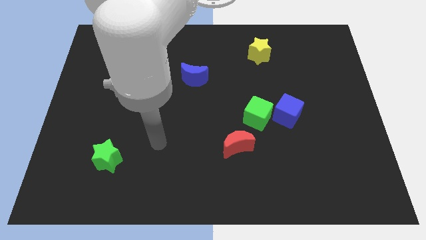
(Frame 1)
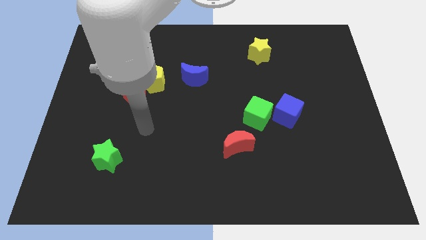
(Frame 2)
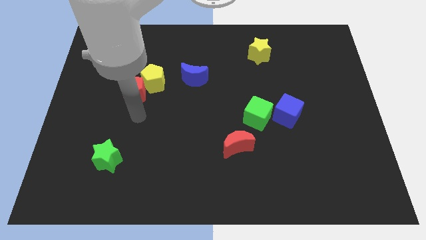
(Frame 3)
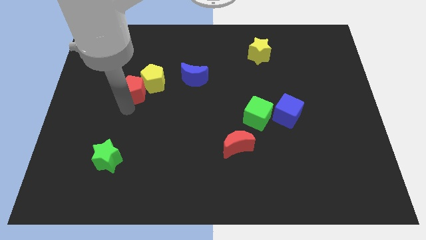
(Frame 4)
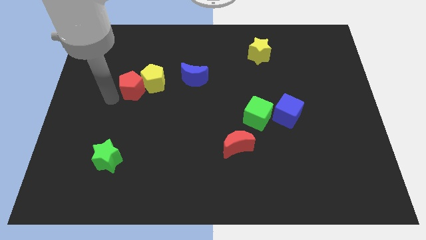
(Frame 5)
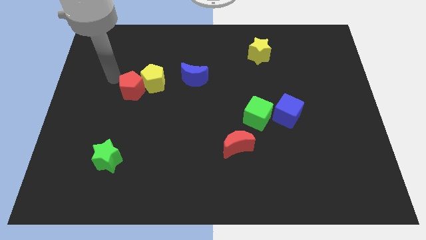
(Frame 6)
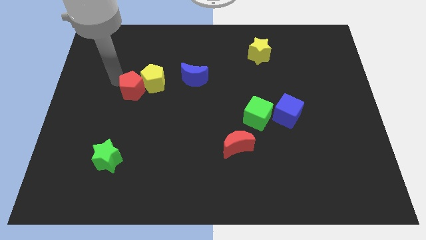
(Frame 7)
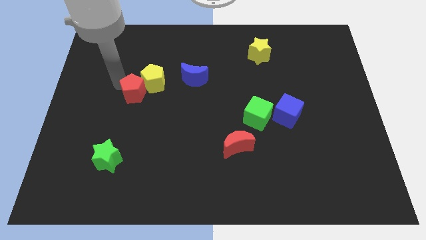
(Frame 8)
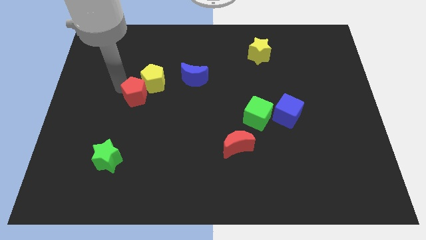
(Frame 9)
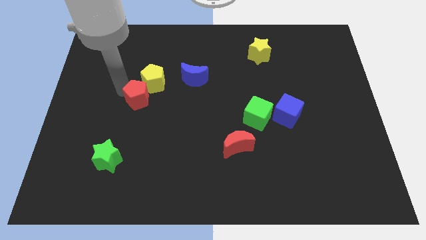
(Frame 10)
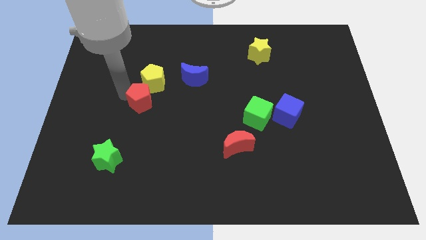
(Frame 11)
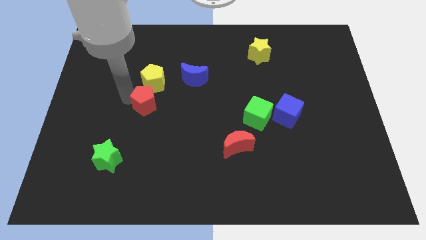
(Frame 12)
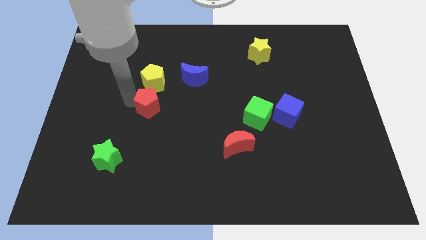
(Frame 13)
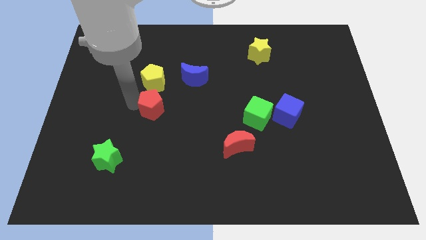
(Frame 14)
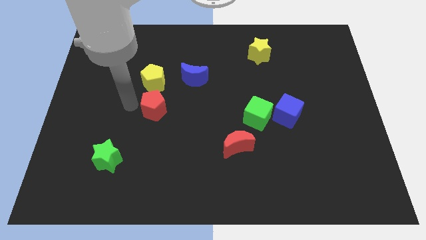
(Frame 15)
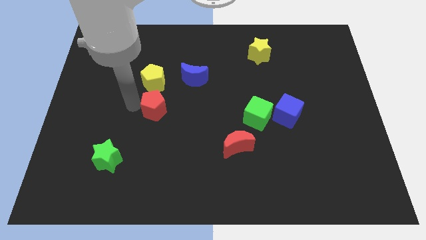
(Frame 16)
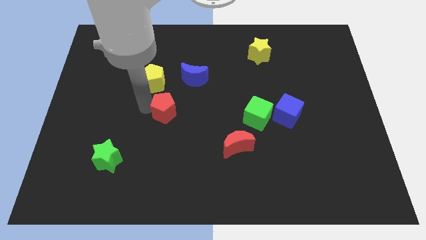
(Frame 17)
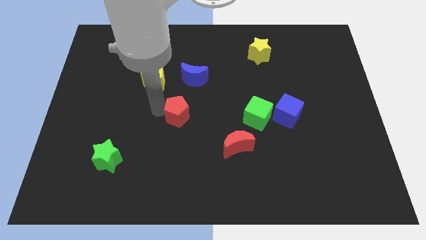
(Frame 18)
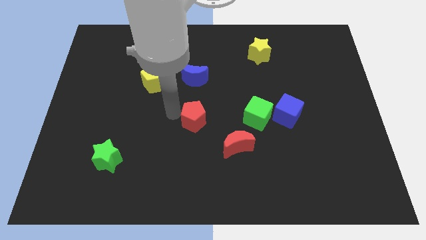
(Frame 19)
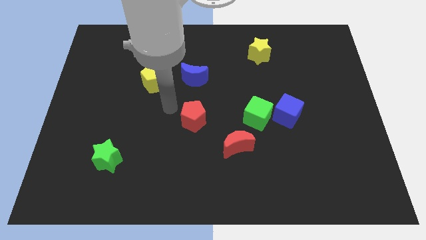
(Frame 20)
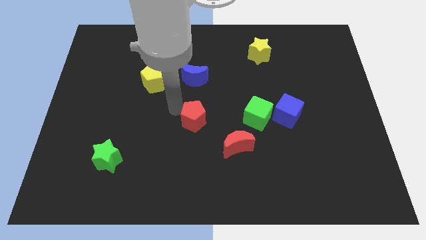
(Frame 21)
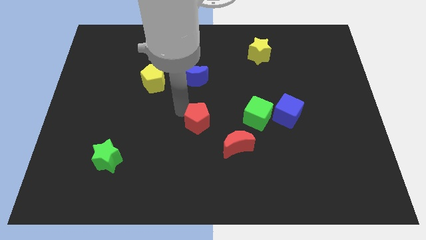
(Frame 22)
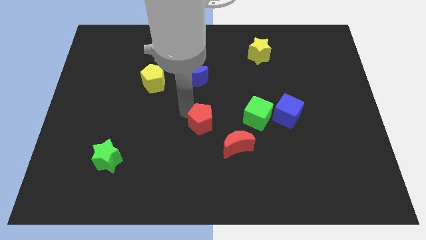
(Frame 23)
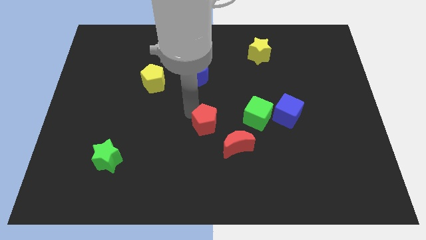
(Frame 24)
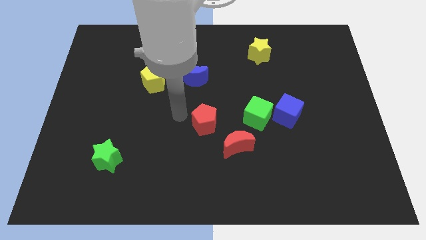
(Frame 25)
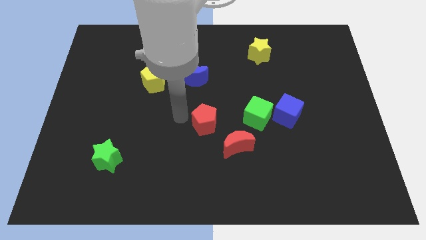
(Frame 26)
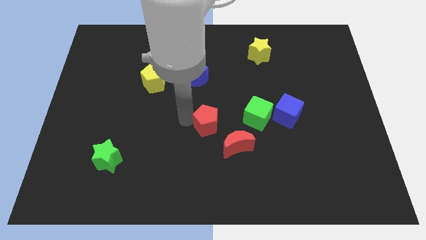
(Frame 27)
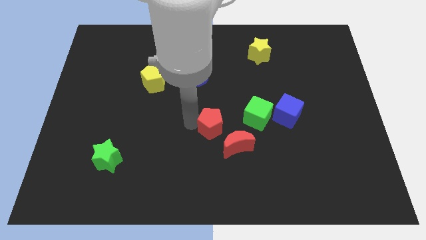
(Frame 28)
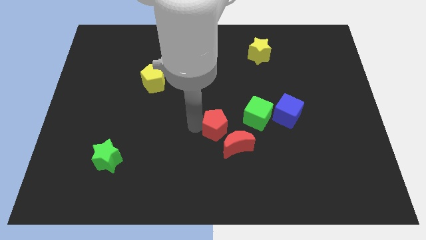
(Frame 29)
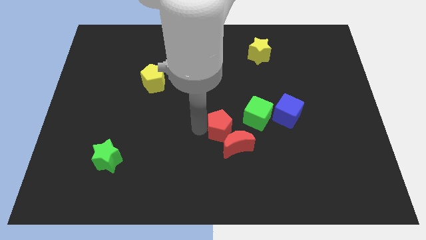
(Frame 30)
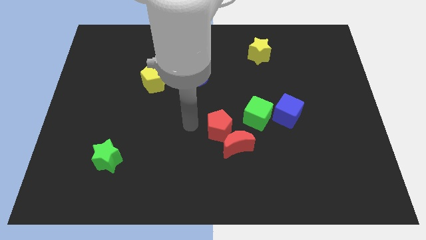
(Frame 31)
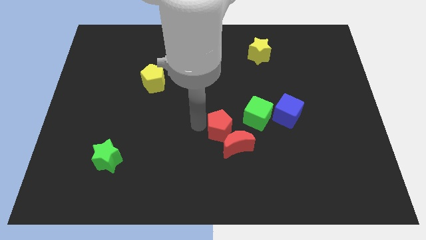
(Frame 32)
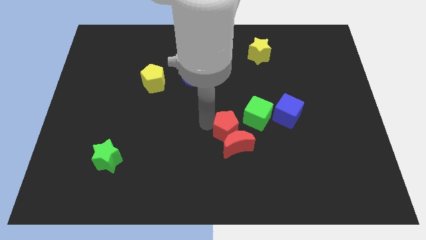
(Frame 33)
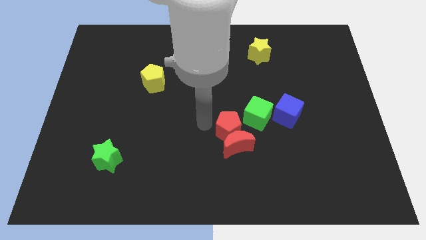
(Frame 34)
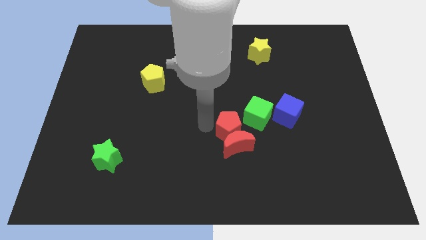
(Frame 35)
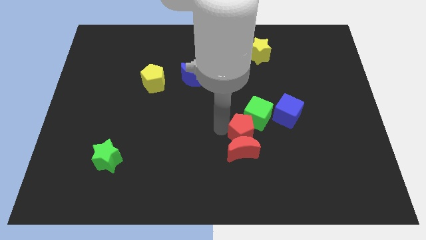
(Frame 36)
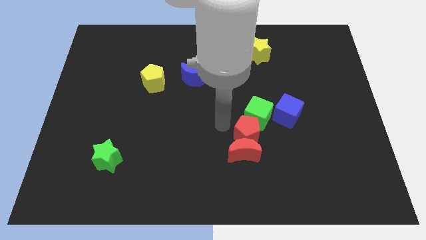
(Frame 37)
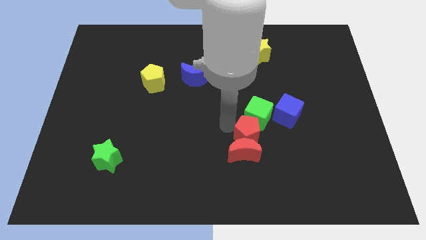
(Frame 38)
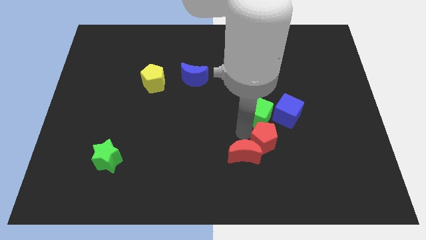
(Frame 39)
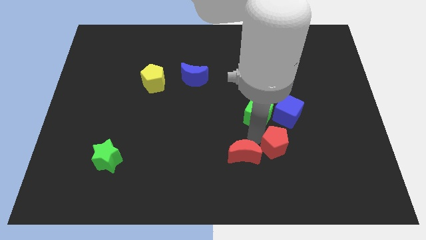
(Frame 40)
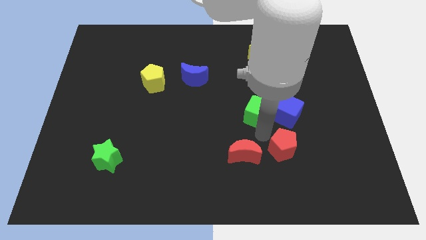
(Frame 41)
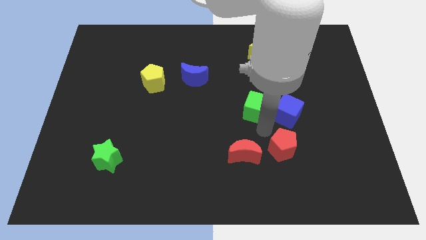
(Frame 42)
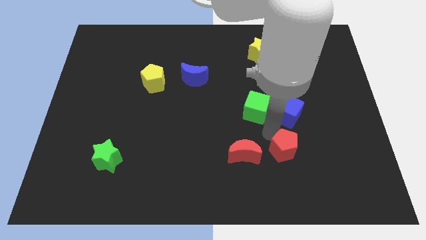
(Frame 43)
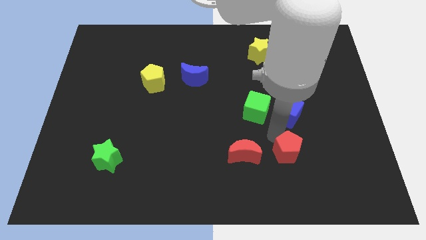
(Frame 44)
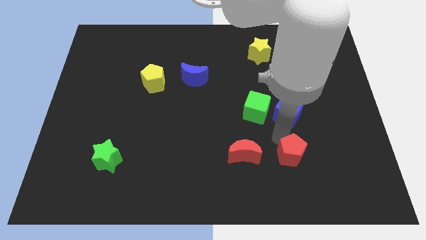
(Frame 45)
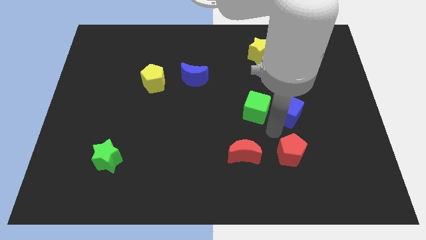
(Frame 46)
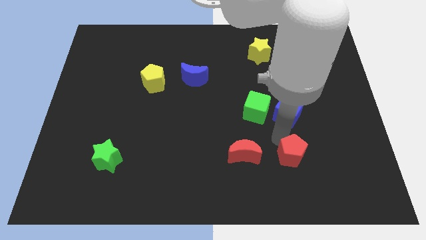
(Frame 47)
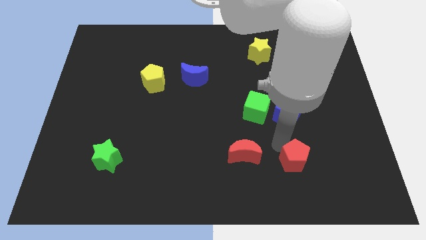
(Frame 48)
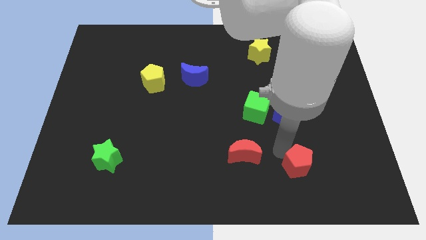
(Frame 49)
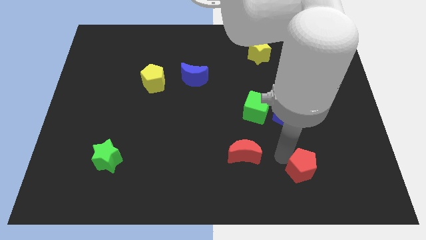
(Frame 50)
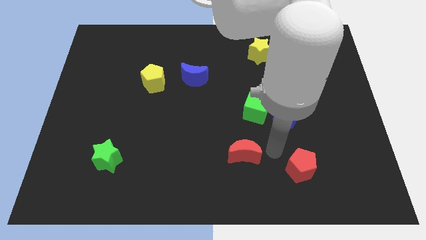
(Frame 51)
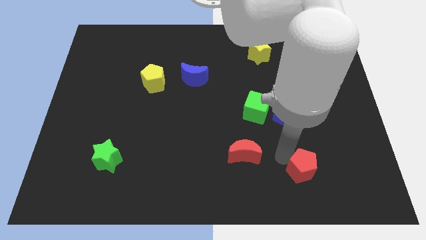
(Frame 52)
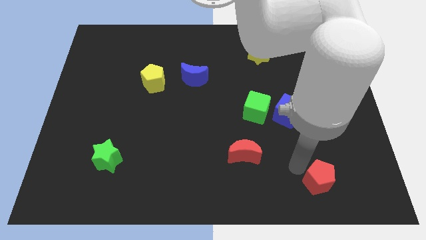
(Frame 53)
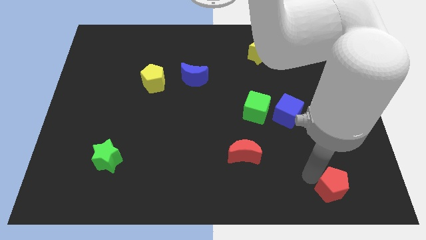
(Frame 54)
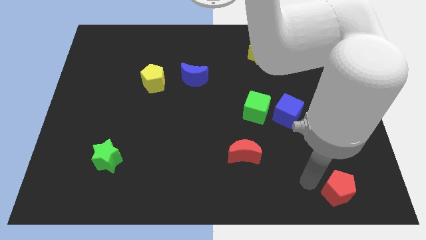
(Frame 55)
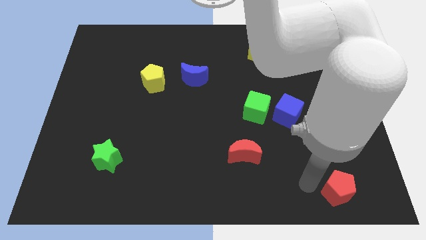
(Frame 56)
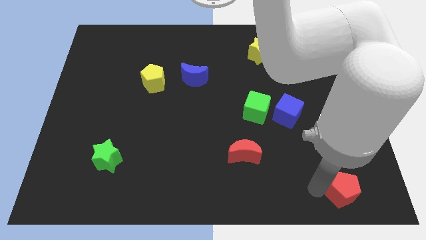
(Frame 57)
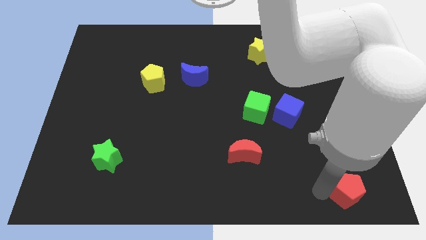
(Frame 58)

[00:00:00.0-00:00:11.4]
put the red pentagon to the bottom right of the board

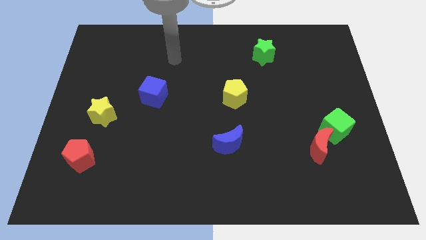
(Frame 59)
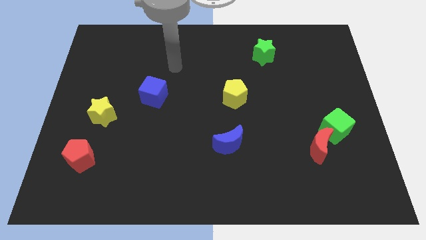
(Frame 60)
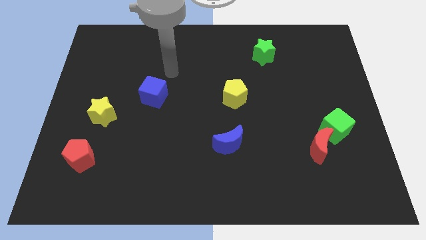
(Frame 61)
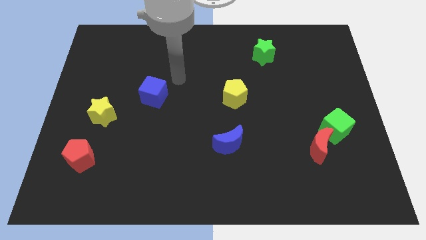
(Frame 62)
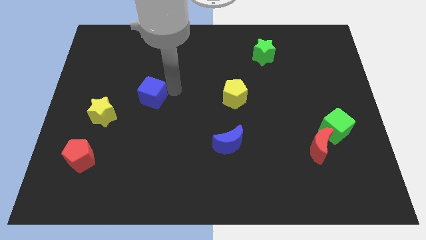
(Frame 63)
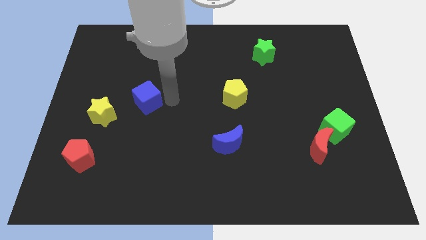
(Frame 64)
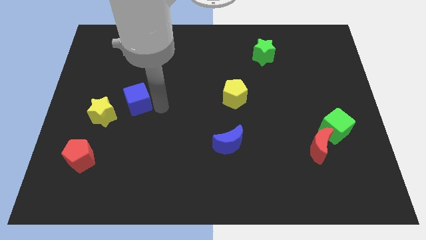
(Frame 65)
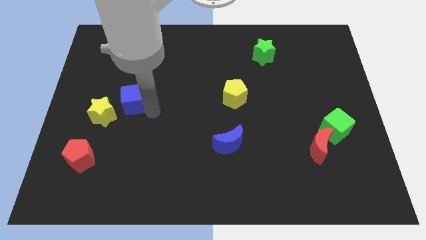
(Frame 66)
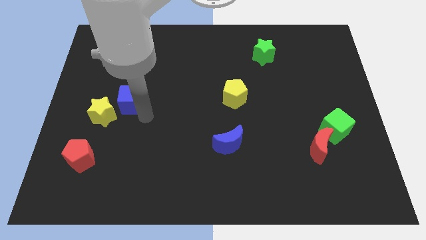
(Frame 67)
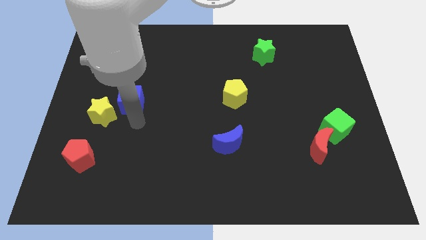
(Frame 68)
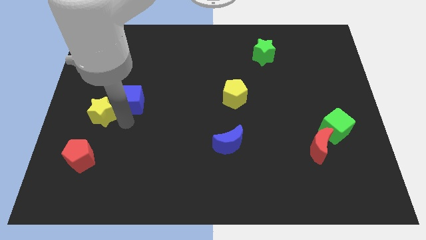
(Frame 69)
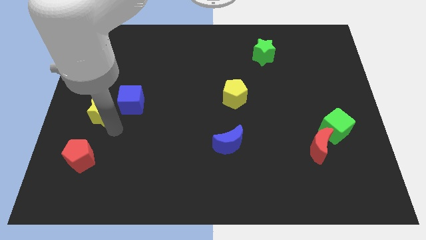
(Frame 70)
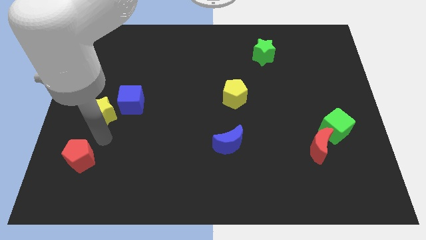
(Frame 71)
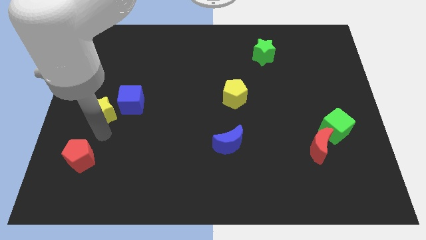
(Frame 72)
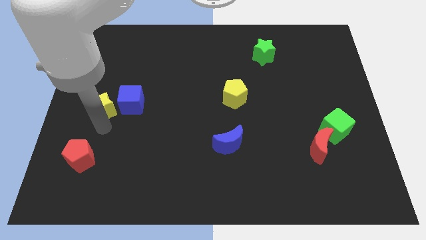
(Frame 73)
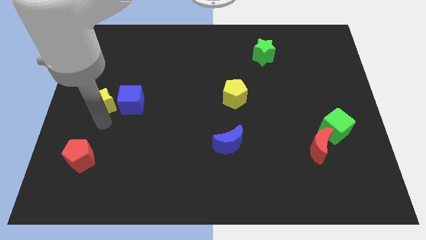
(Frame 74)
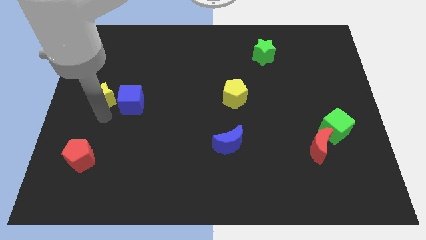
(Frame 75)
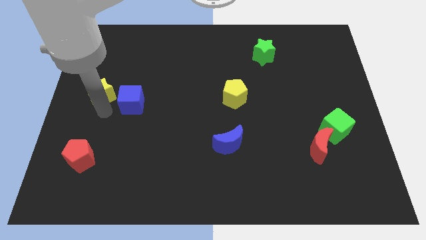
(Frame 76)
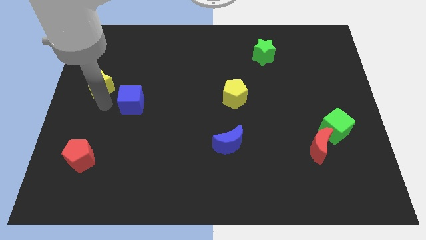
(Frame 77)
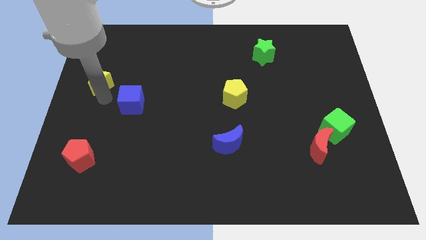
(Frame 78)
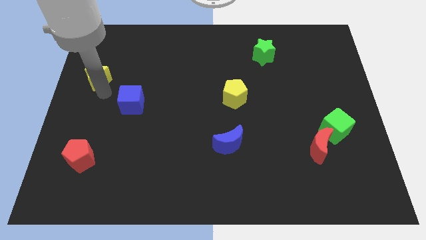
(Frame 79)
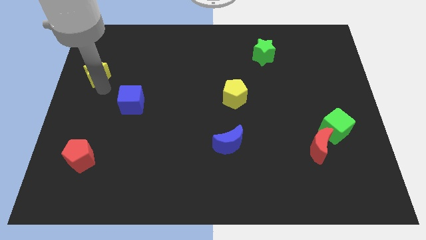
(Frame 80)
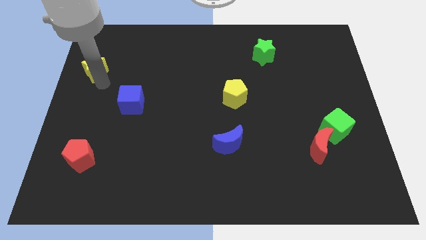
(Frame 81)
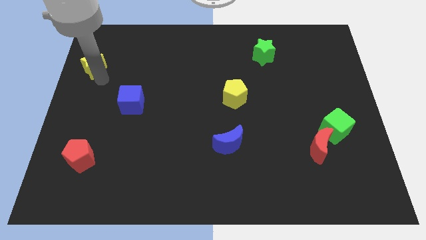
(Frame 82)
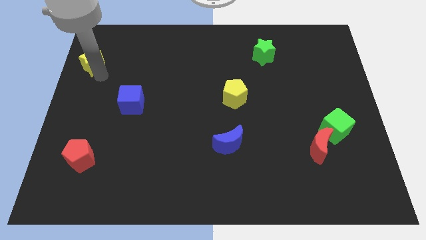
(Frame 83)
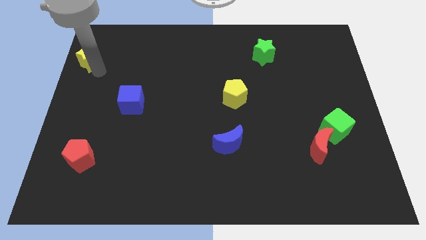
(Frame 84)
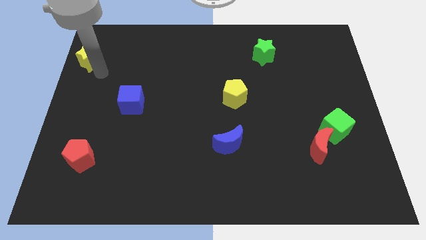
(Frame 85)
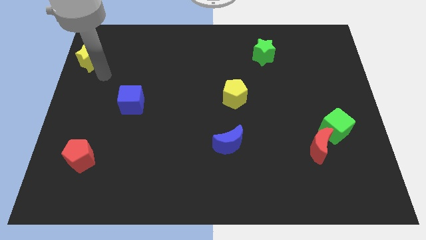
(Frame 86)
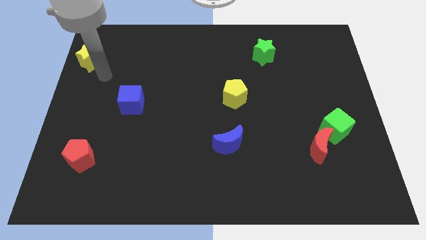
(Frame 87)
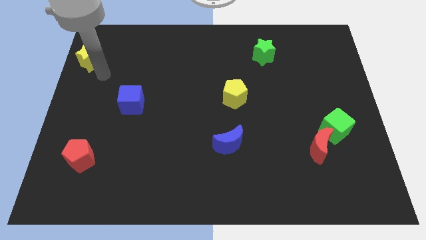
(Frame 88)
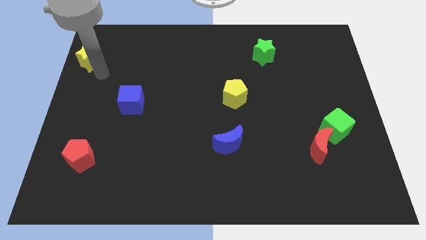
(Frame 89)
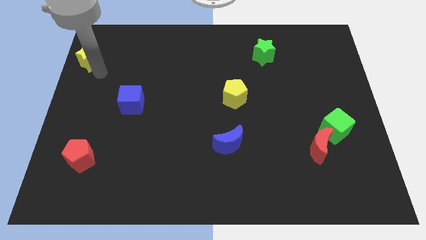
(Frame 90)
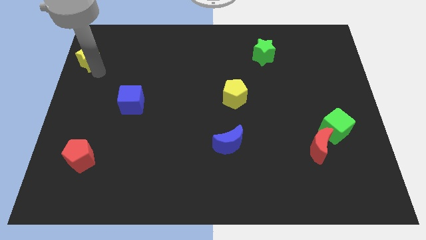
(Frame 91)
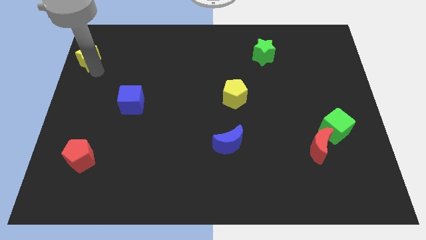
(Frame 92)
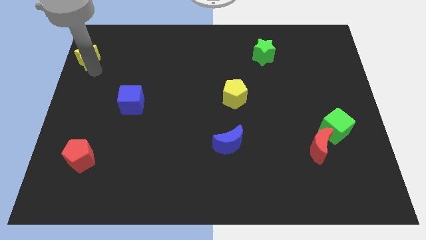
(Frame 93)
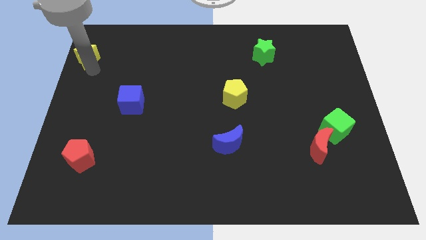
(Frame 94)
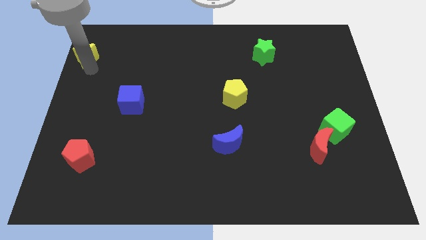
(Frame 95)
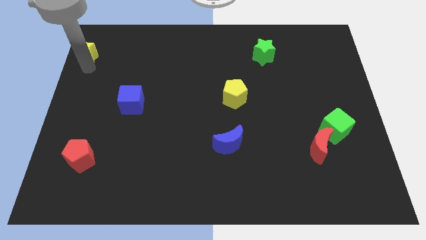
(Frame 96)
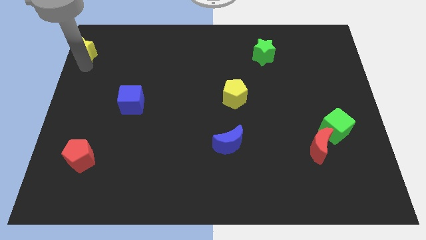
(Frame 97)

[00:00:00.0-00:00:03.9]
push the yellow star to the upper left corner
